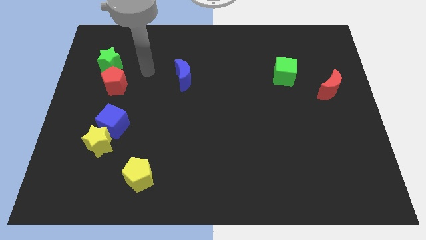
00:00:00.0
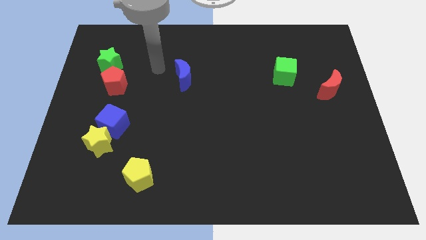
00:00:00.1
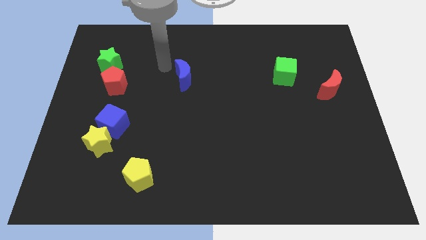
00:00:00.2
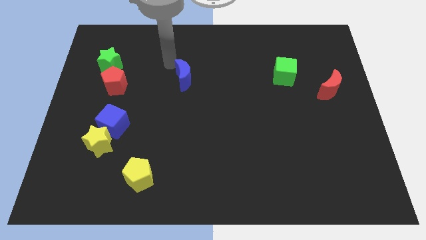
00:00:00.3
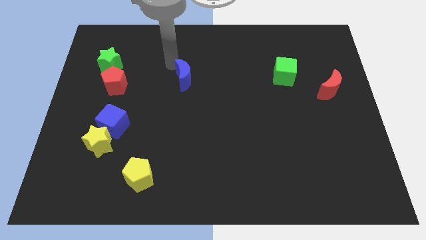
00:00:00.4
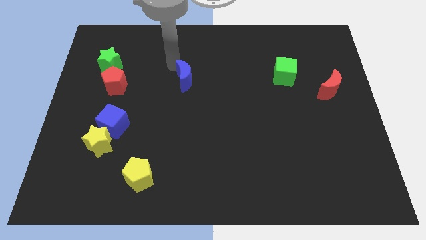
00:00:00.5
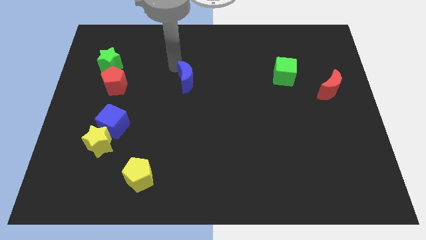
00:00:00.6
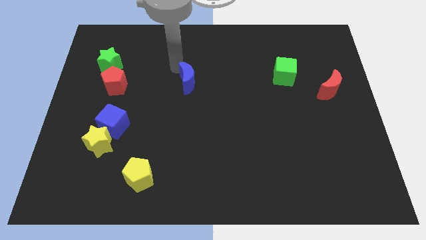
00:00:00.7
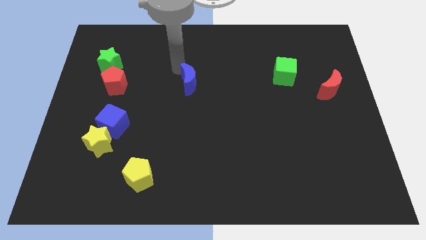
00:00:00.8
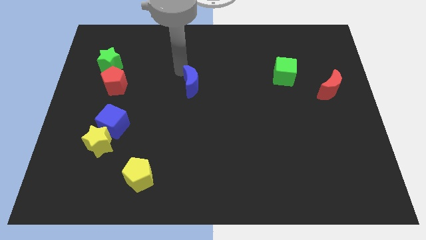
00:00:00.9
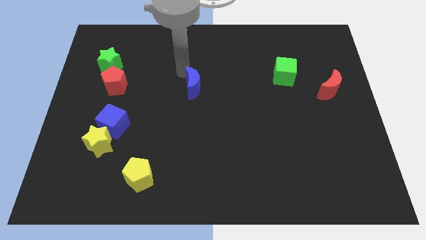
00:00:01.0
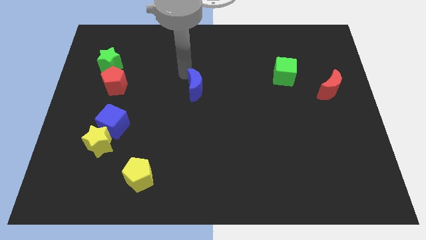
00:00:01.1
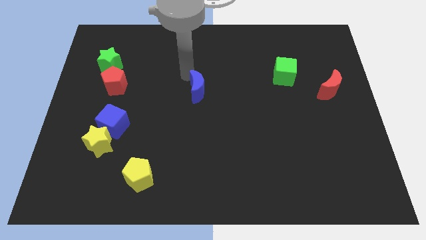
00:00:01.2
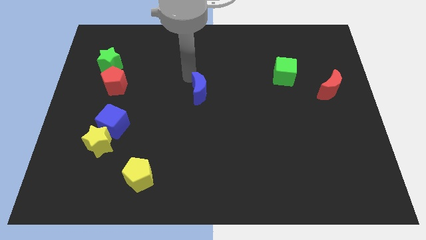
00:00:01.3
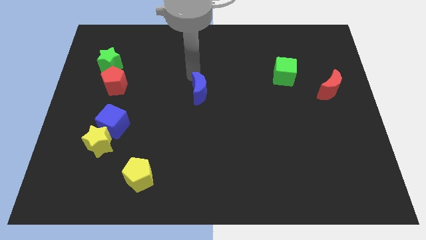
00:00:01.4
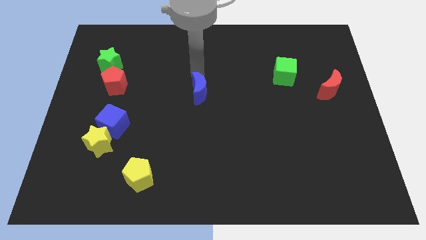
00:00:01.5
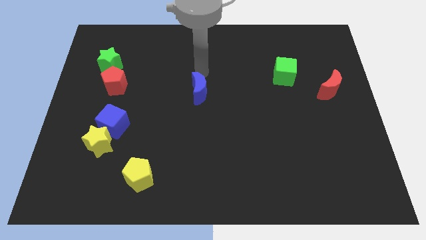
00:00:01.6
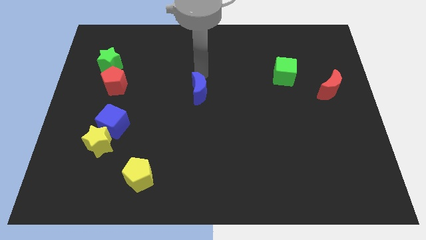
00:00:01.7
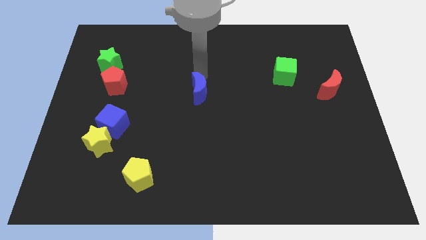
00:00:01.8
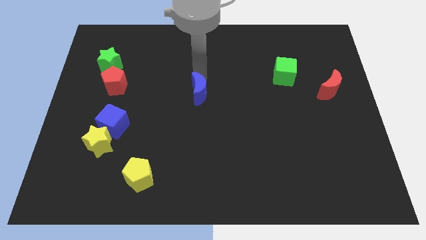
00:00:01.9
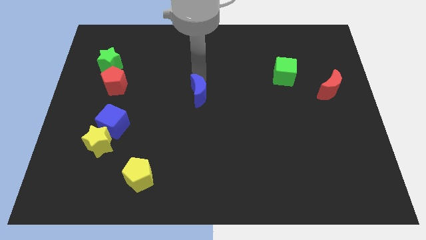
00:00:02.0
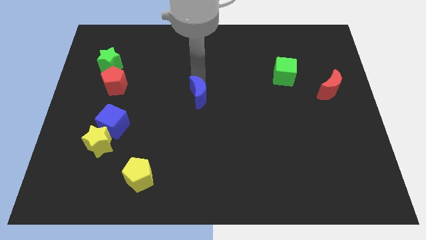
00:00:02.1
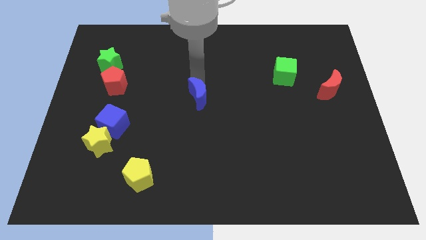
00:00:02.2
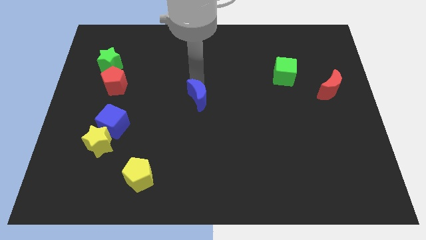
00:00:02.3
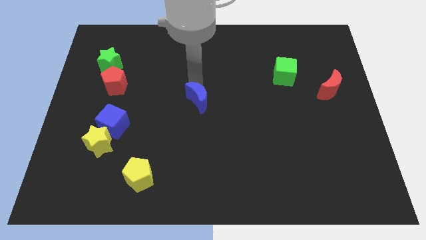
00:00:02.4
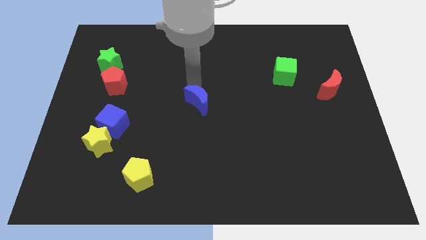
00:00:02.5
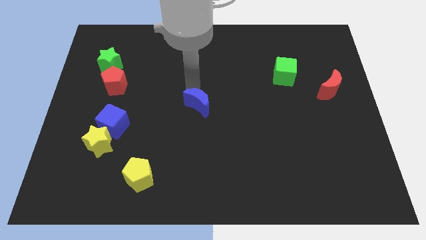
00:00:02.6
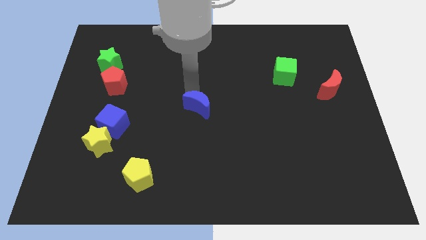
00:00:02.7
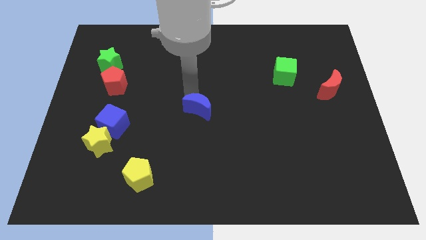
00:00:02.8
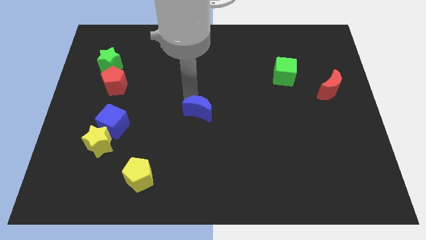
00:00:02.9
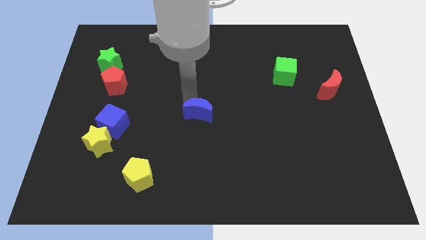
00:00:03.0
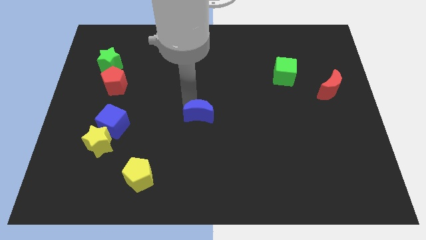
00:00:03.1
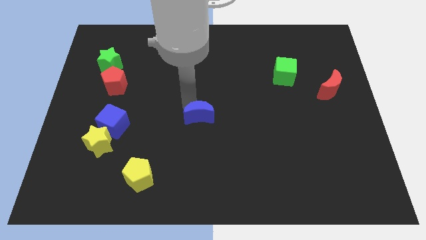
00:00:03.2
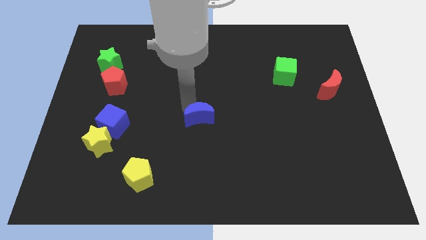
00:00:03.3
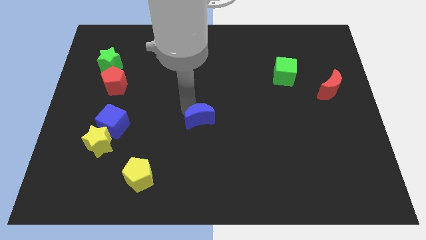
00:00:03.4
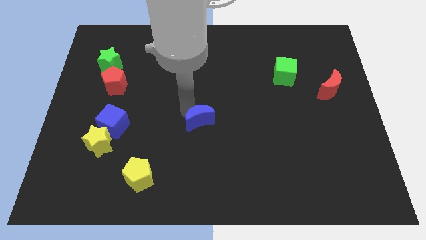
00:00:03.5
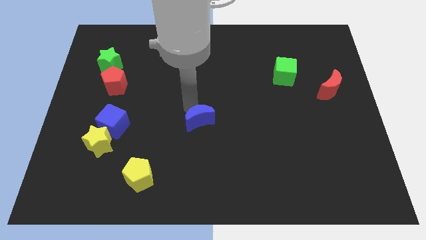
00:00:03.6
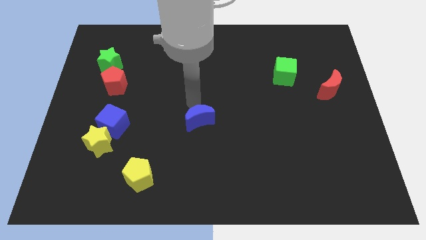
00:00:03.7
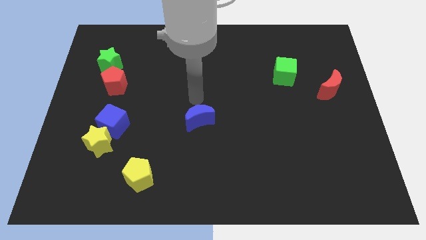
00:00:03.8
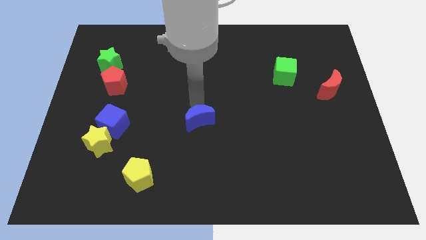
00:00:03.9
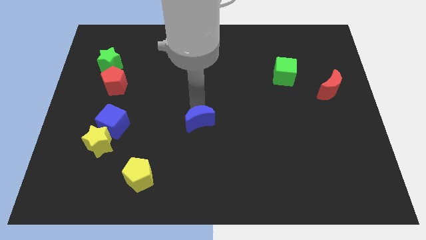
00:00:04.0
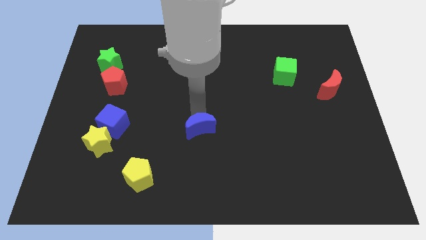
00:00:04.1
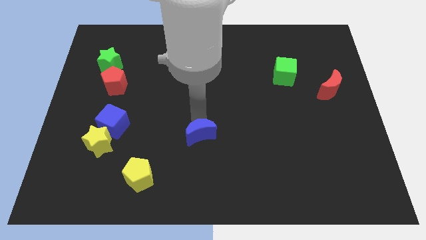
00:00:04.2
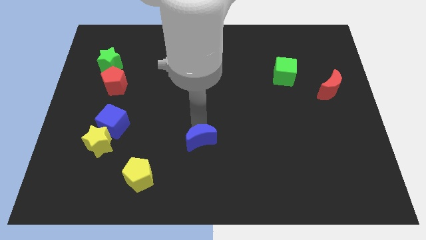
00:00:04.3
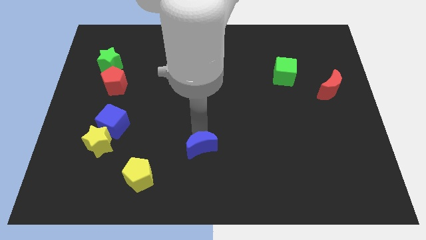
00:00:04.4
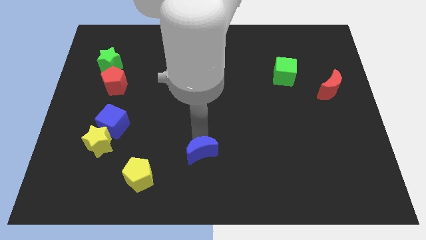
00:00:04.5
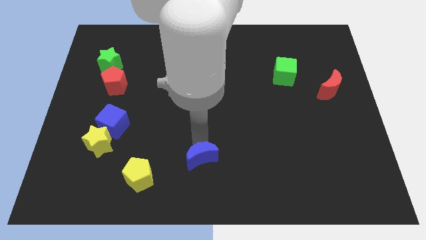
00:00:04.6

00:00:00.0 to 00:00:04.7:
put the blue moon to the bottom side

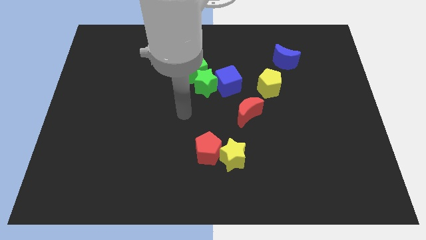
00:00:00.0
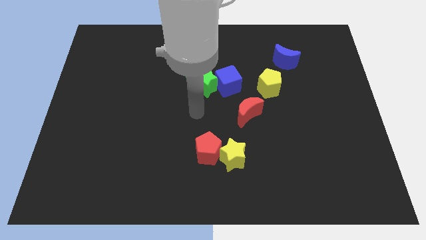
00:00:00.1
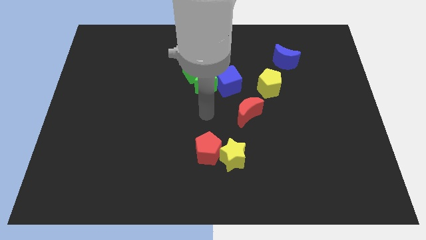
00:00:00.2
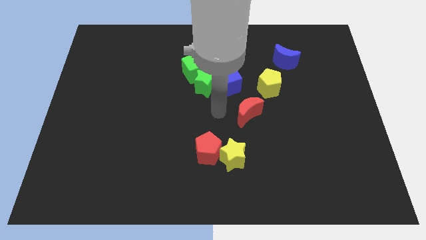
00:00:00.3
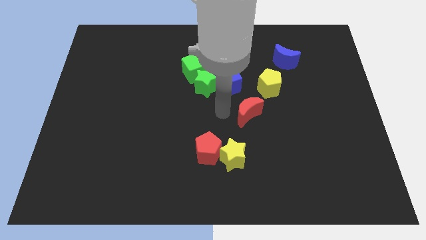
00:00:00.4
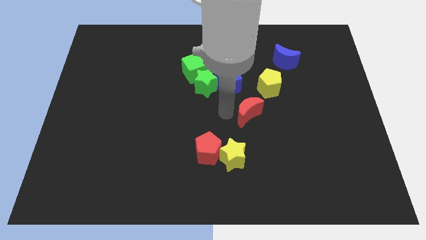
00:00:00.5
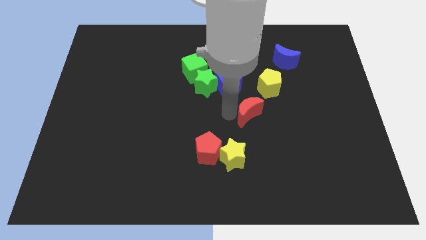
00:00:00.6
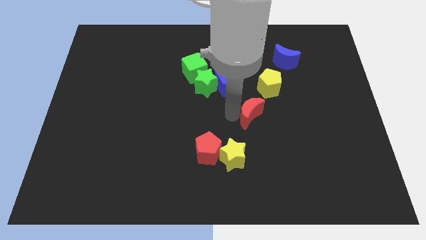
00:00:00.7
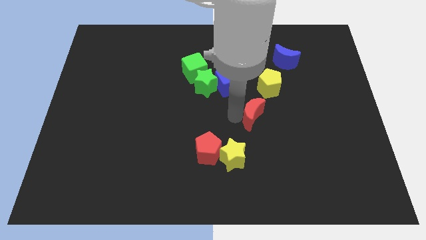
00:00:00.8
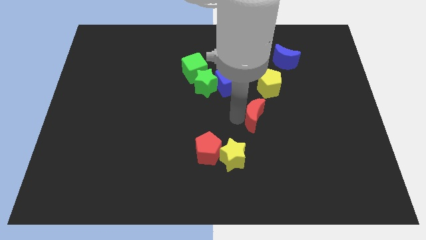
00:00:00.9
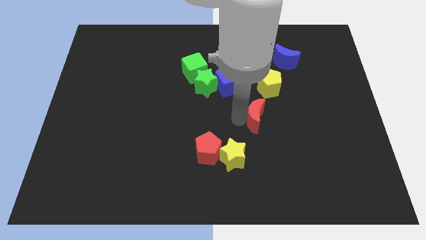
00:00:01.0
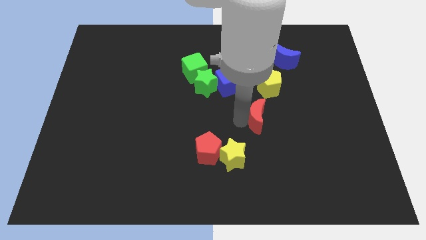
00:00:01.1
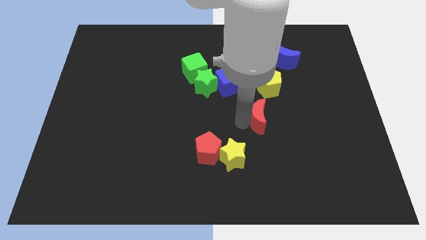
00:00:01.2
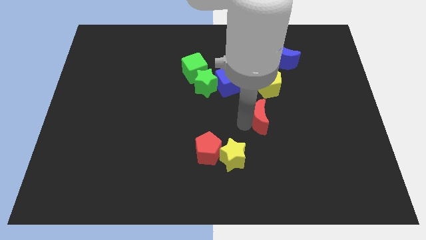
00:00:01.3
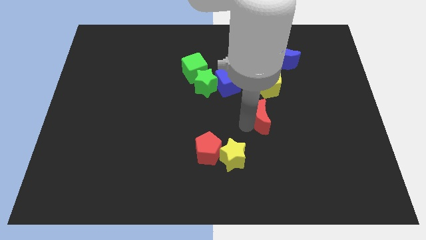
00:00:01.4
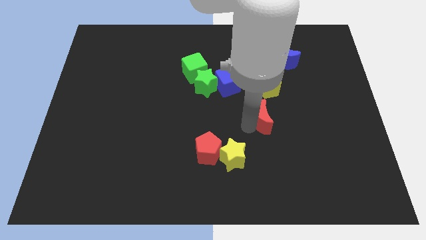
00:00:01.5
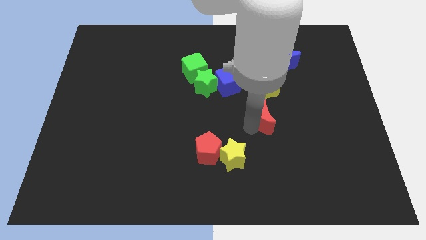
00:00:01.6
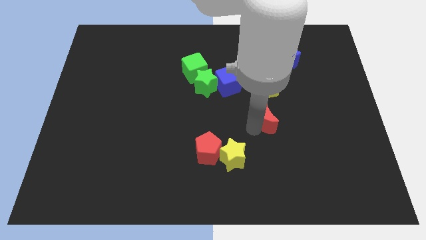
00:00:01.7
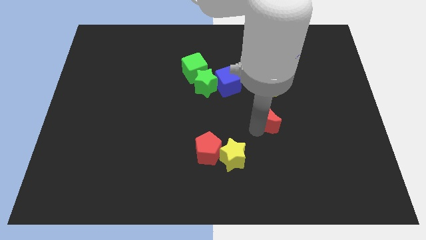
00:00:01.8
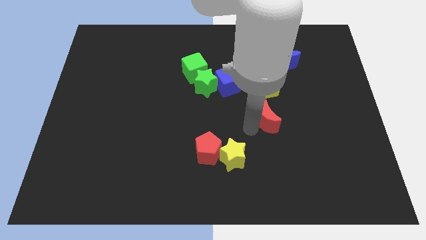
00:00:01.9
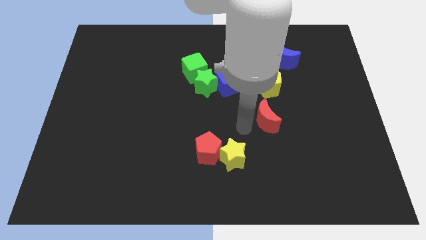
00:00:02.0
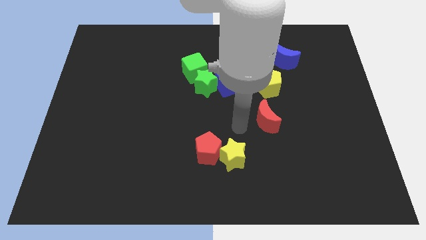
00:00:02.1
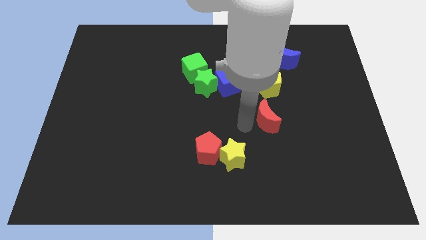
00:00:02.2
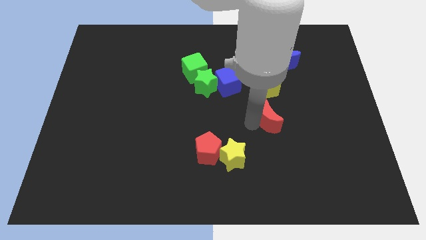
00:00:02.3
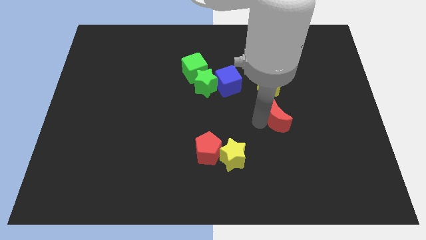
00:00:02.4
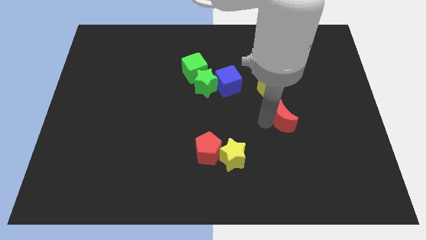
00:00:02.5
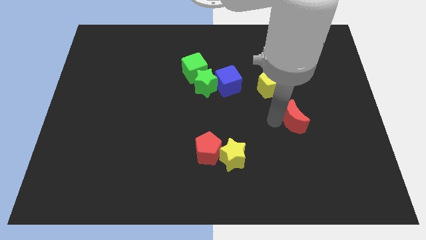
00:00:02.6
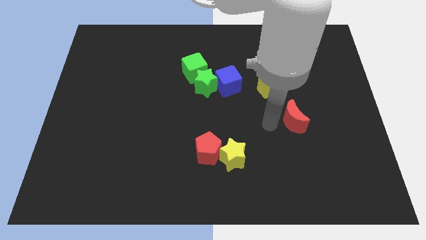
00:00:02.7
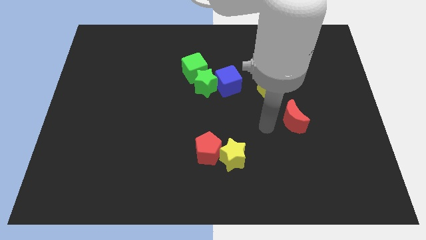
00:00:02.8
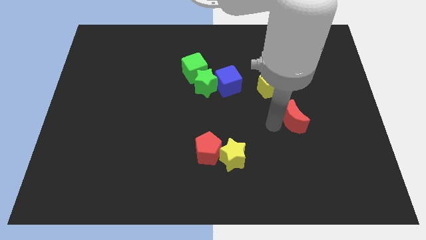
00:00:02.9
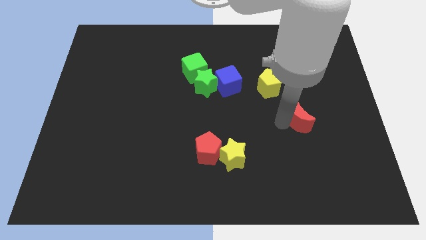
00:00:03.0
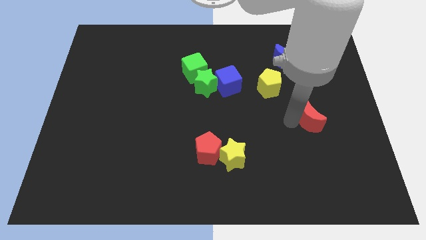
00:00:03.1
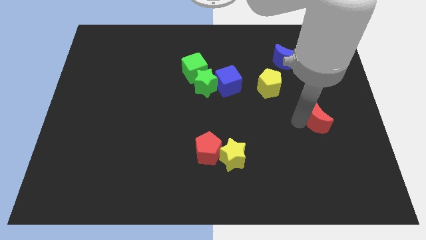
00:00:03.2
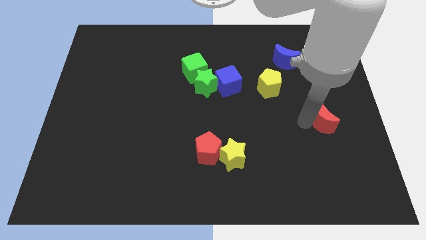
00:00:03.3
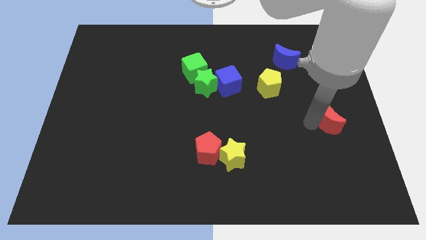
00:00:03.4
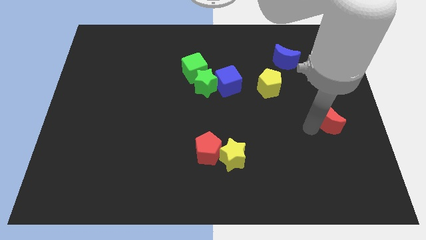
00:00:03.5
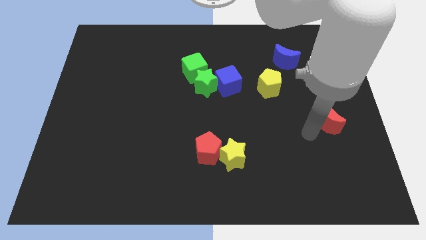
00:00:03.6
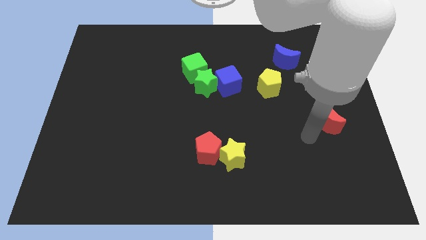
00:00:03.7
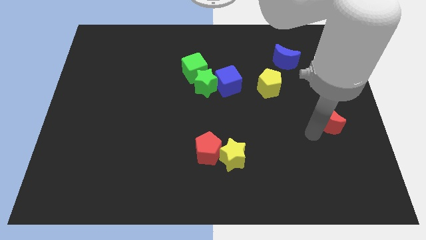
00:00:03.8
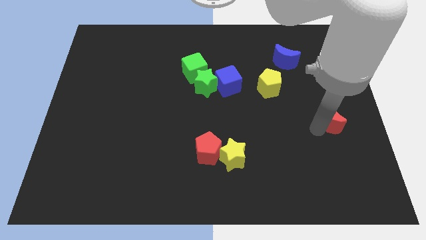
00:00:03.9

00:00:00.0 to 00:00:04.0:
put the red moon to the right side
